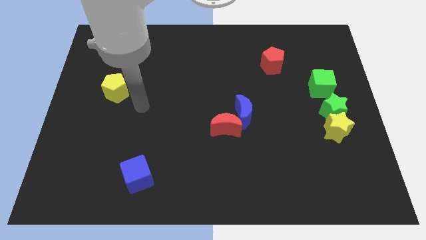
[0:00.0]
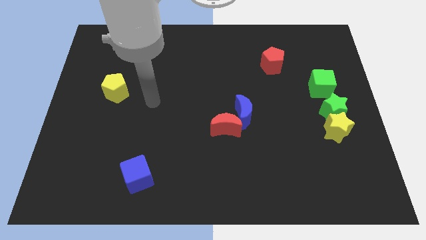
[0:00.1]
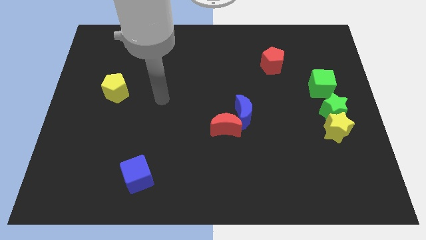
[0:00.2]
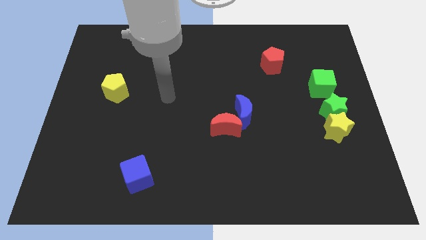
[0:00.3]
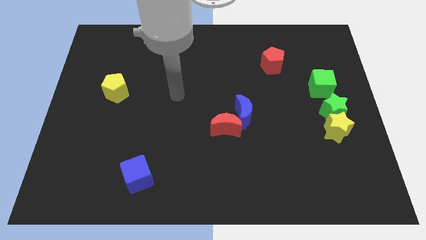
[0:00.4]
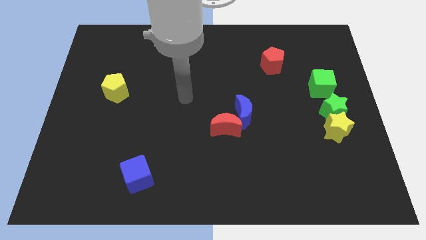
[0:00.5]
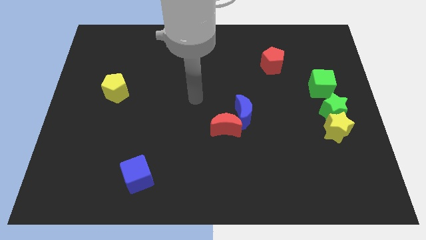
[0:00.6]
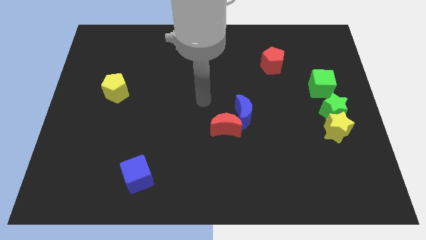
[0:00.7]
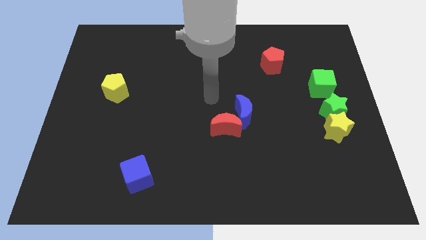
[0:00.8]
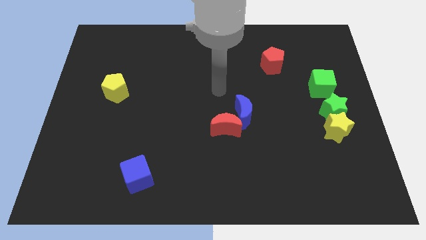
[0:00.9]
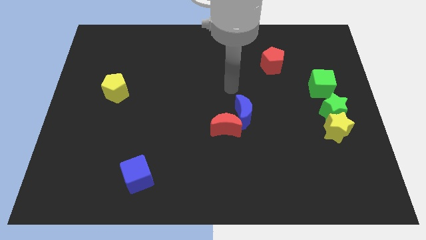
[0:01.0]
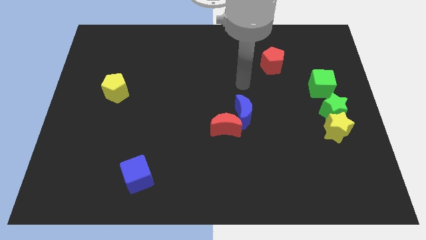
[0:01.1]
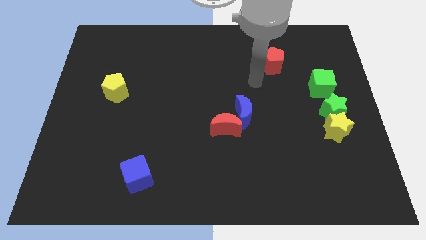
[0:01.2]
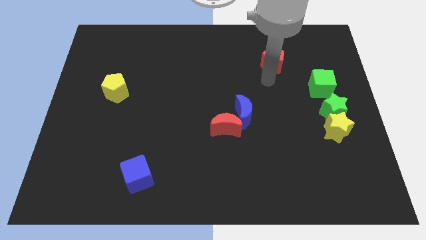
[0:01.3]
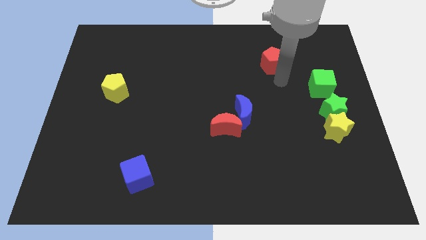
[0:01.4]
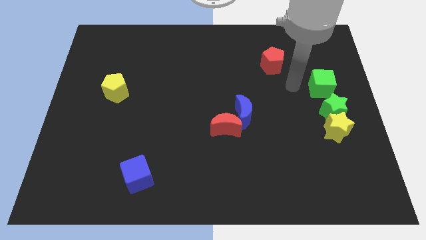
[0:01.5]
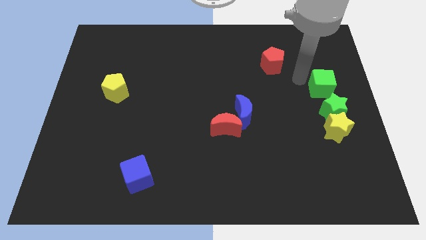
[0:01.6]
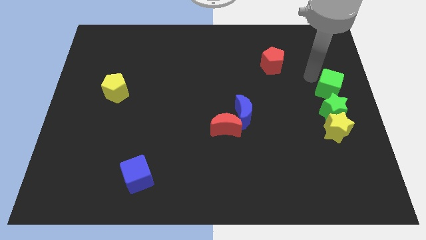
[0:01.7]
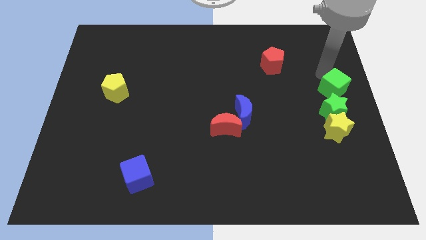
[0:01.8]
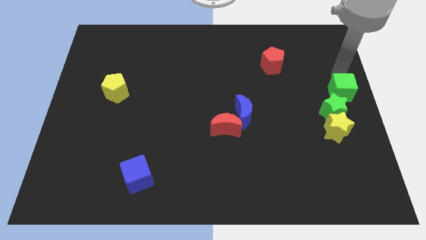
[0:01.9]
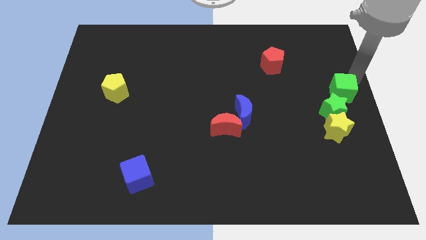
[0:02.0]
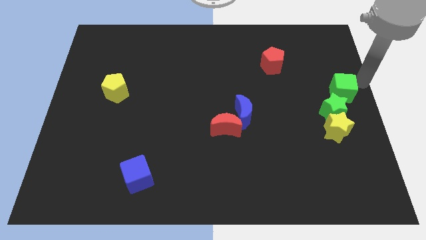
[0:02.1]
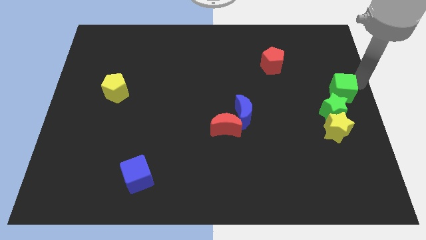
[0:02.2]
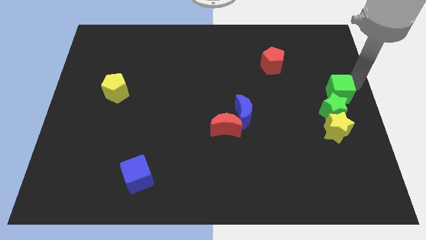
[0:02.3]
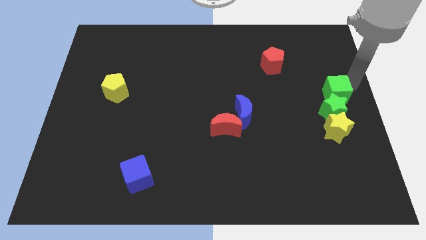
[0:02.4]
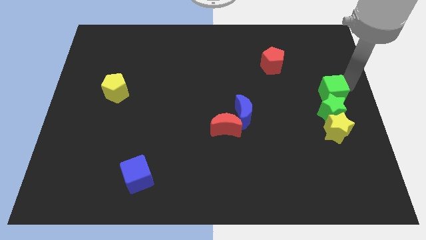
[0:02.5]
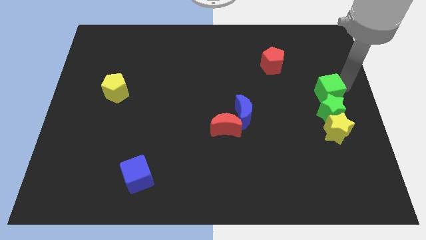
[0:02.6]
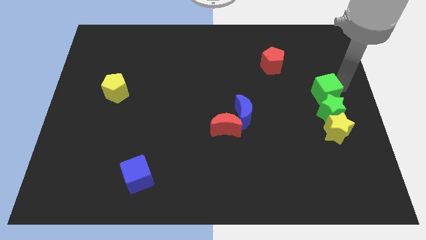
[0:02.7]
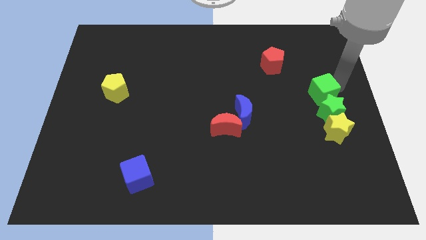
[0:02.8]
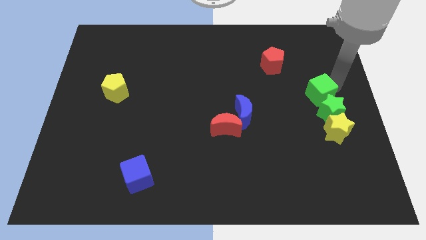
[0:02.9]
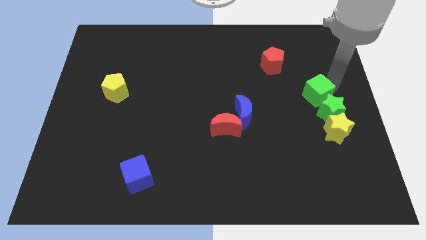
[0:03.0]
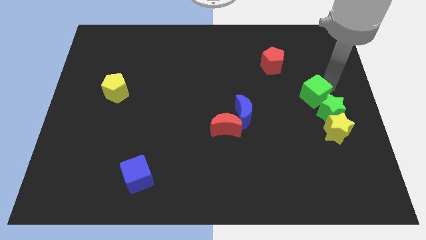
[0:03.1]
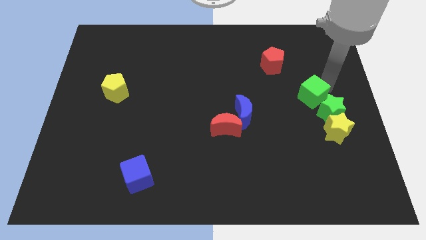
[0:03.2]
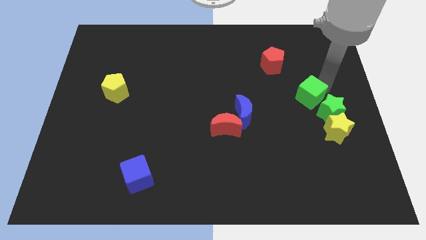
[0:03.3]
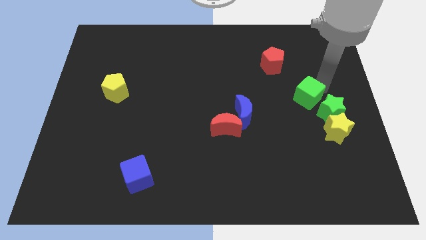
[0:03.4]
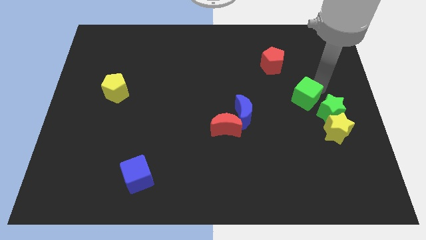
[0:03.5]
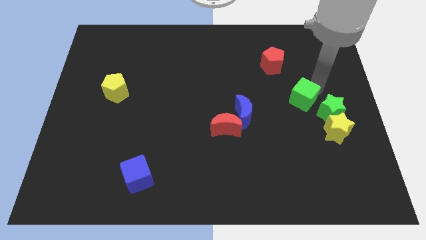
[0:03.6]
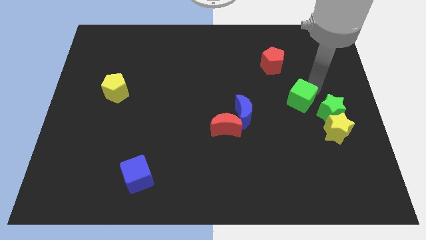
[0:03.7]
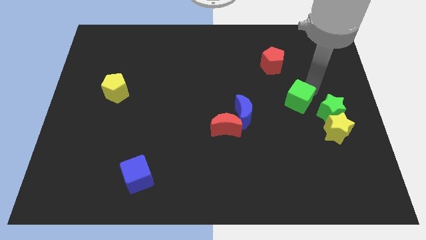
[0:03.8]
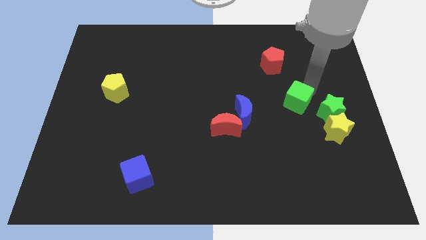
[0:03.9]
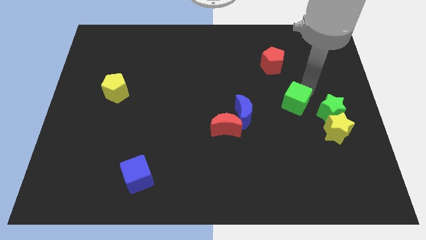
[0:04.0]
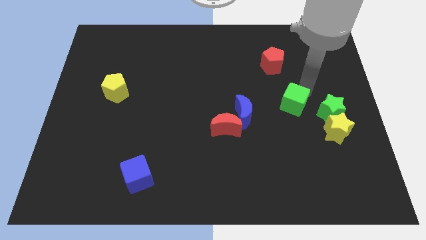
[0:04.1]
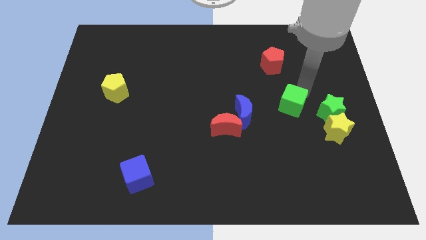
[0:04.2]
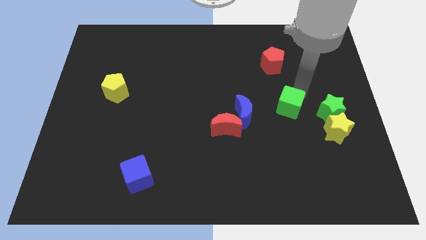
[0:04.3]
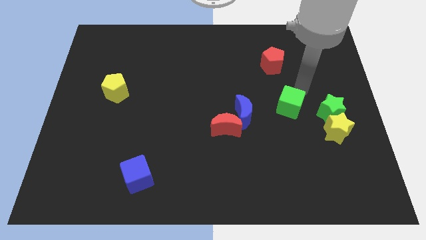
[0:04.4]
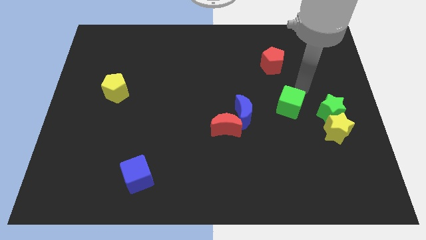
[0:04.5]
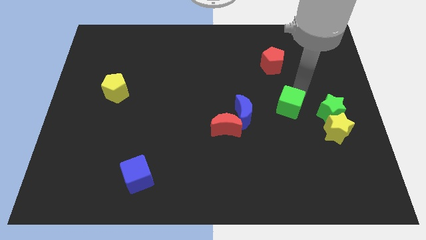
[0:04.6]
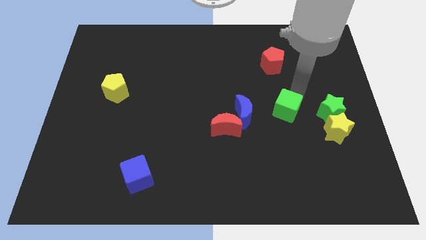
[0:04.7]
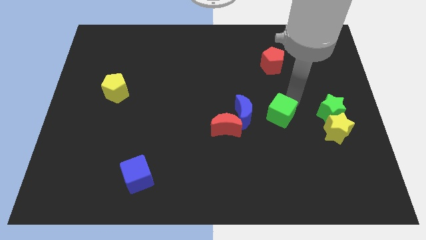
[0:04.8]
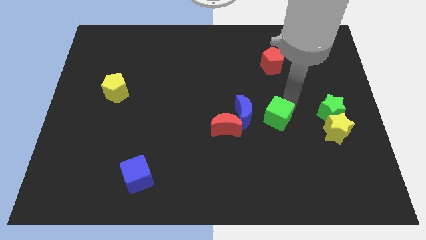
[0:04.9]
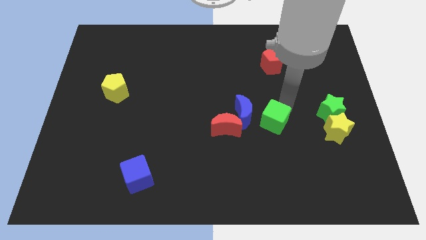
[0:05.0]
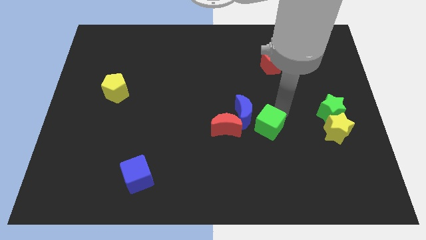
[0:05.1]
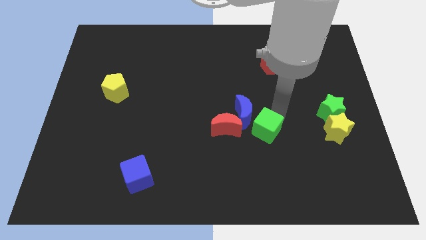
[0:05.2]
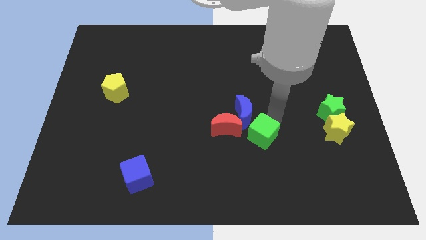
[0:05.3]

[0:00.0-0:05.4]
put the green cube to the bottom right of the red moon

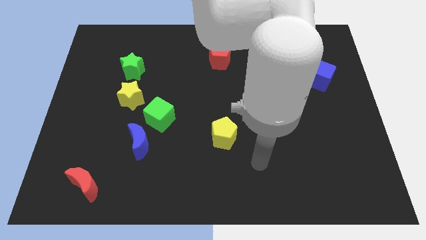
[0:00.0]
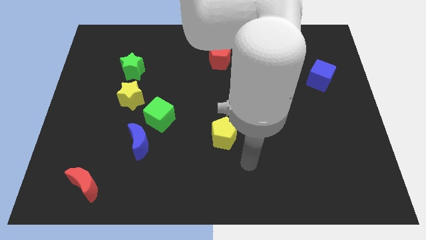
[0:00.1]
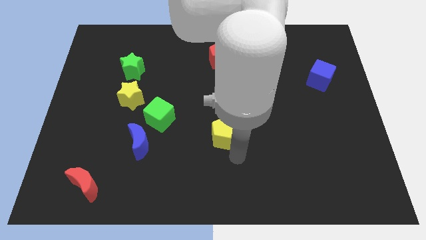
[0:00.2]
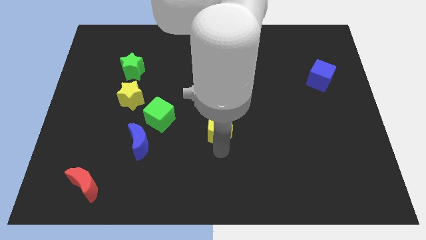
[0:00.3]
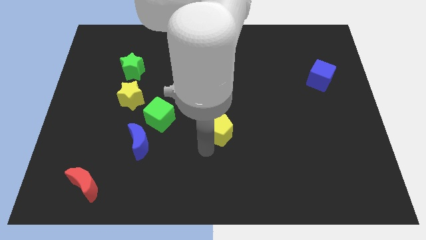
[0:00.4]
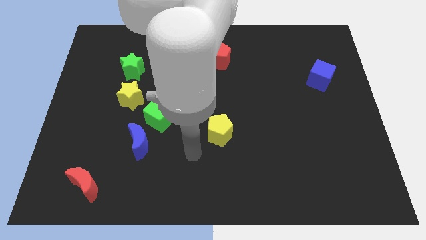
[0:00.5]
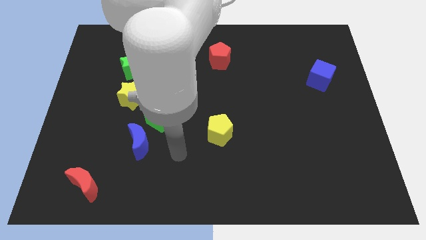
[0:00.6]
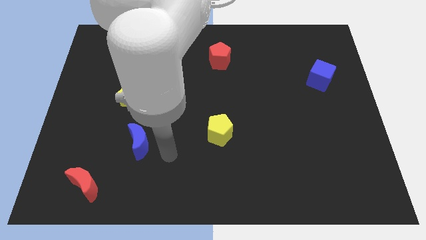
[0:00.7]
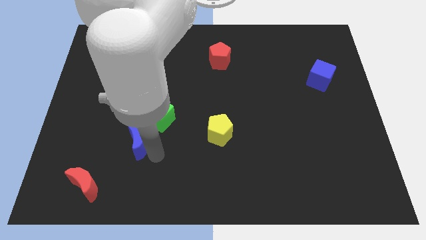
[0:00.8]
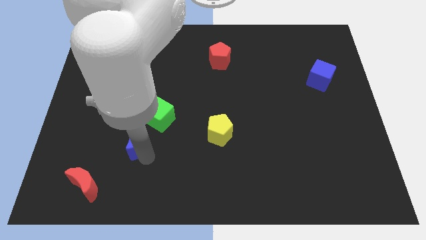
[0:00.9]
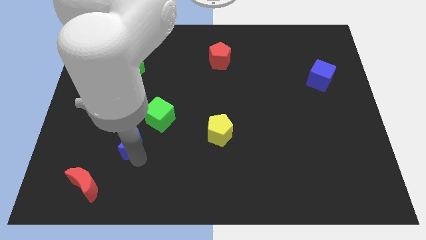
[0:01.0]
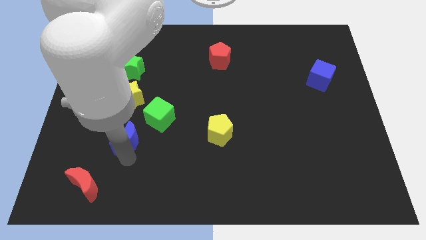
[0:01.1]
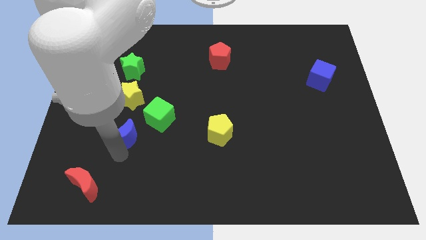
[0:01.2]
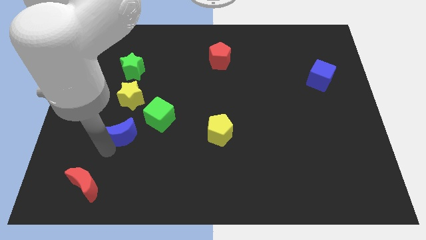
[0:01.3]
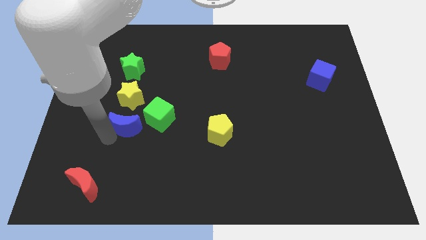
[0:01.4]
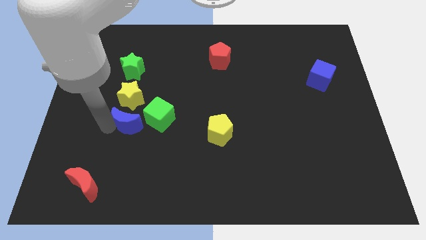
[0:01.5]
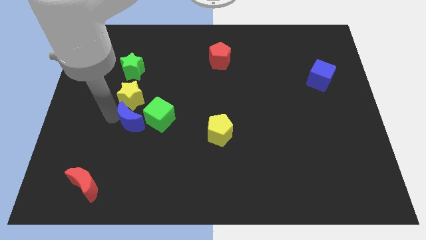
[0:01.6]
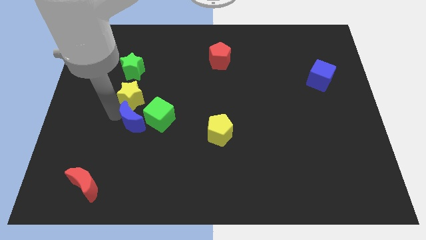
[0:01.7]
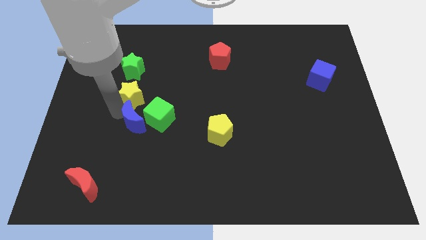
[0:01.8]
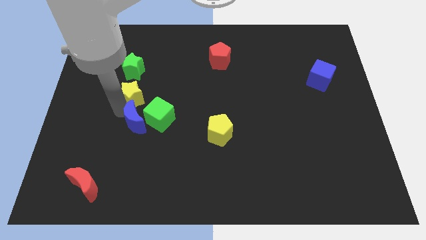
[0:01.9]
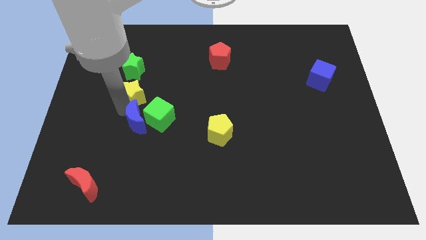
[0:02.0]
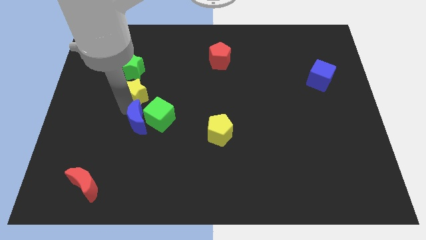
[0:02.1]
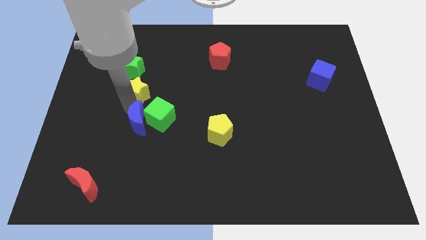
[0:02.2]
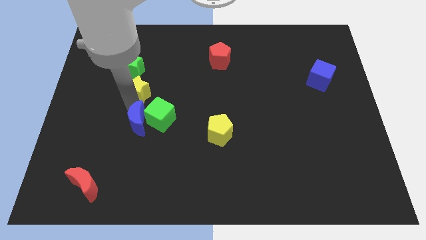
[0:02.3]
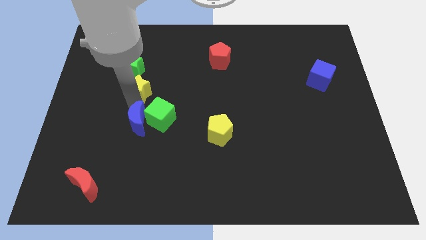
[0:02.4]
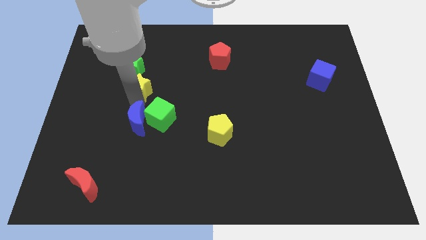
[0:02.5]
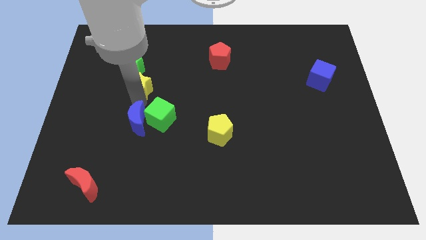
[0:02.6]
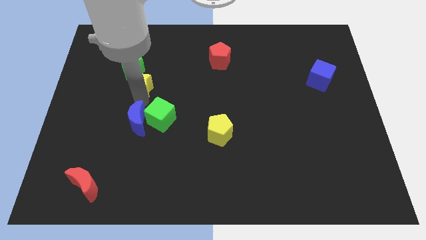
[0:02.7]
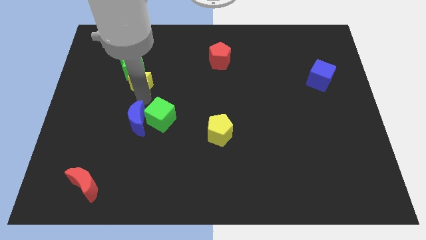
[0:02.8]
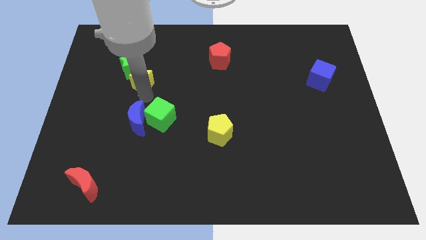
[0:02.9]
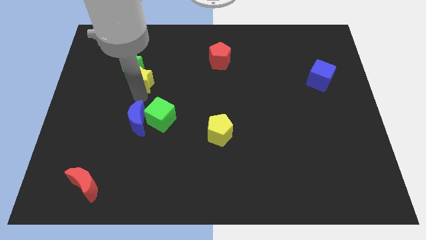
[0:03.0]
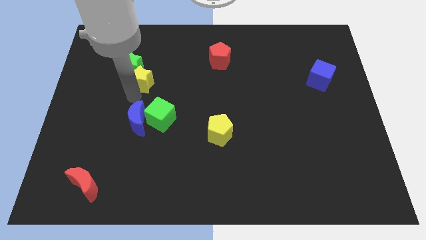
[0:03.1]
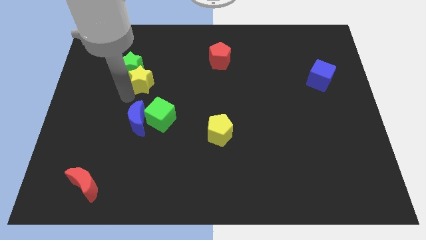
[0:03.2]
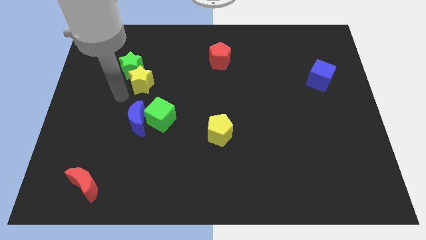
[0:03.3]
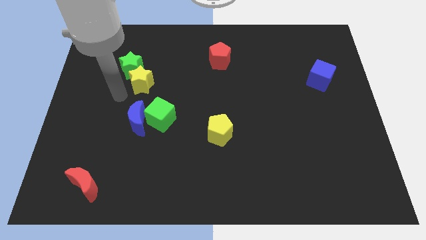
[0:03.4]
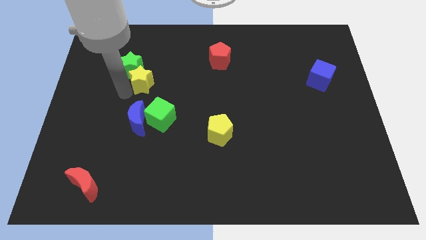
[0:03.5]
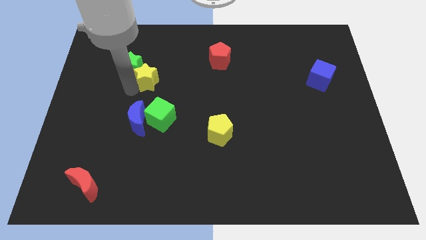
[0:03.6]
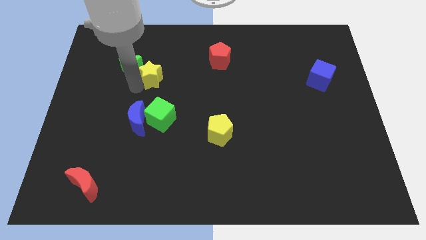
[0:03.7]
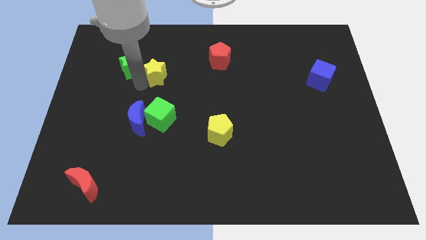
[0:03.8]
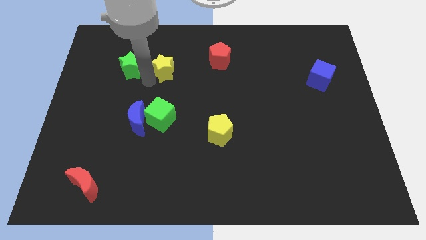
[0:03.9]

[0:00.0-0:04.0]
put the yellow star to the left of the red pentagon
